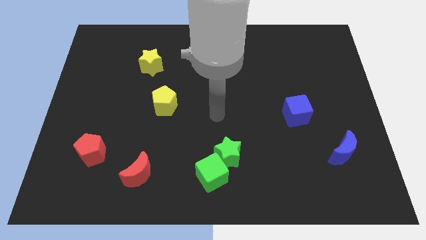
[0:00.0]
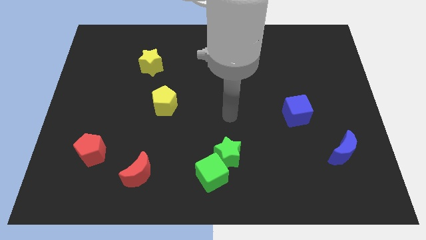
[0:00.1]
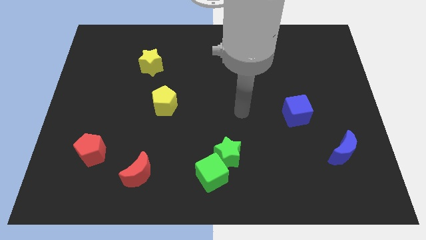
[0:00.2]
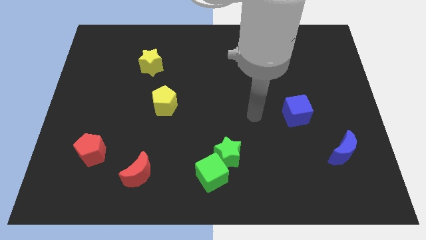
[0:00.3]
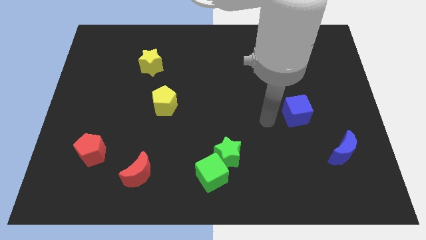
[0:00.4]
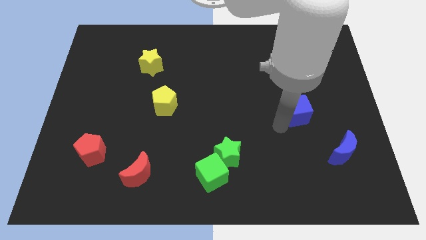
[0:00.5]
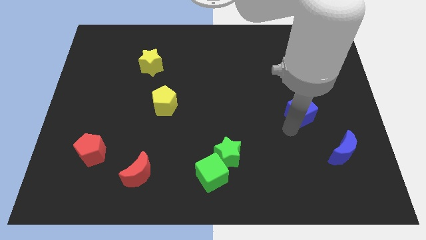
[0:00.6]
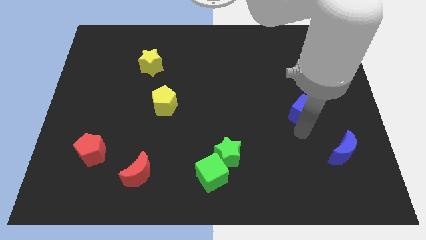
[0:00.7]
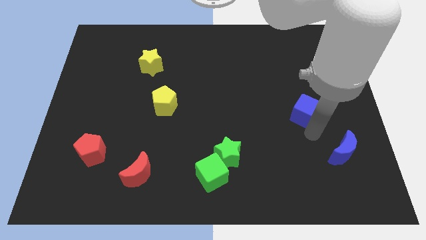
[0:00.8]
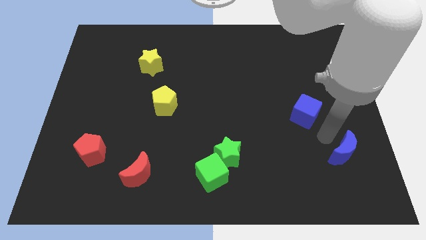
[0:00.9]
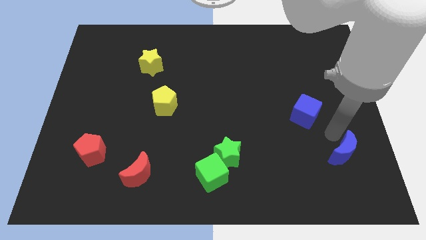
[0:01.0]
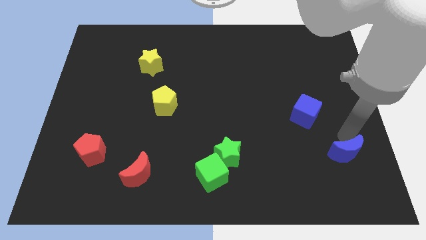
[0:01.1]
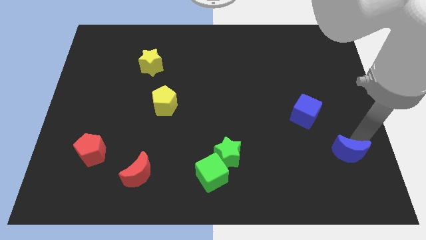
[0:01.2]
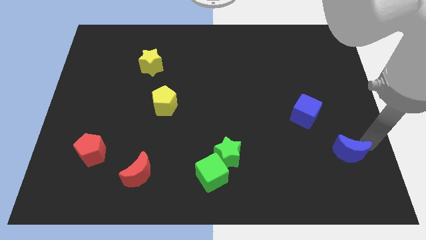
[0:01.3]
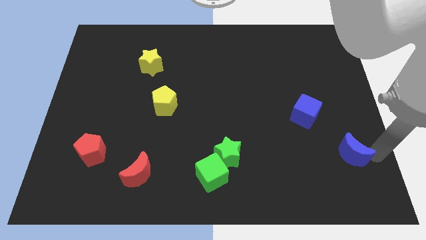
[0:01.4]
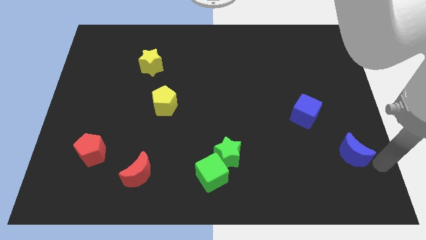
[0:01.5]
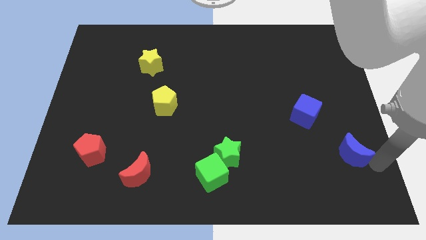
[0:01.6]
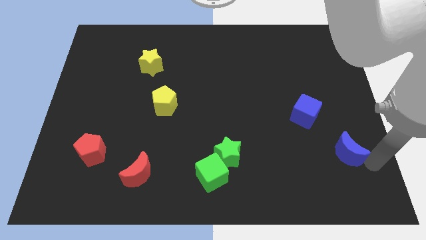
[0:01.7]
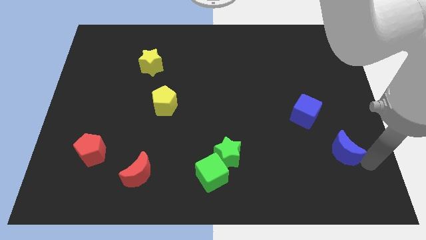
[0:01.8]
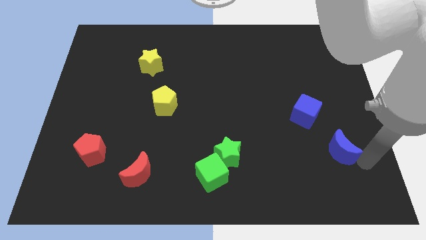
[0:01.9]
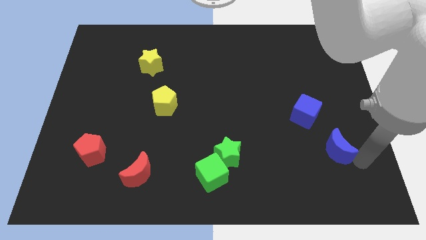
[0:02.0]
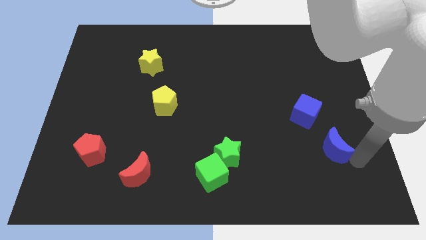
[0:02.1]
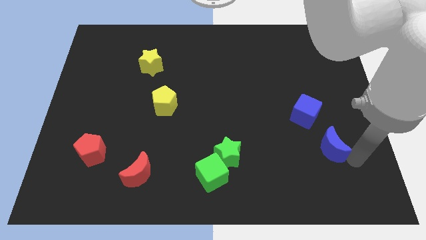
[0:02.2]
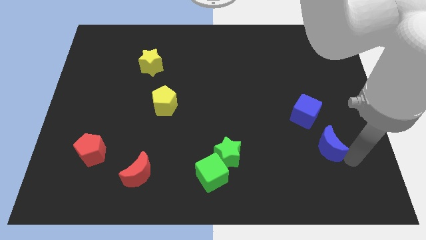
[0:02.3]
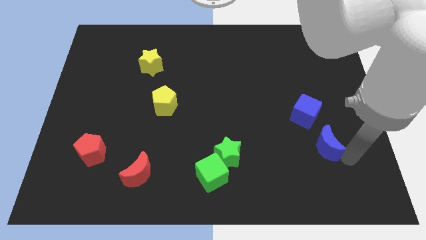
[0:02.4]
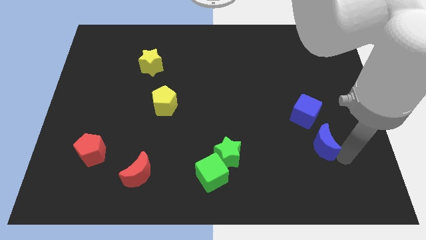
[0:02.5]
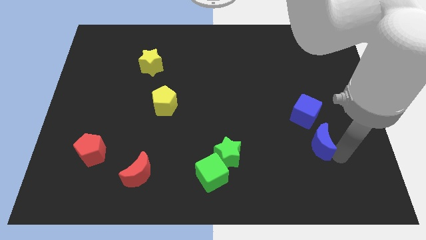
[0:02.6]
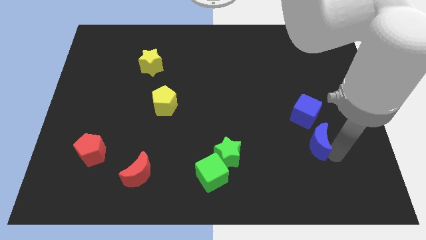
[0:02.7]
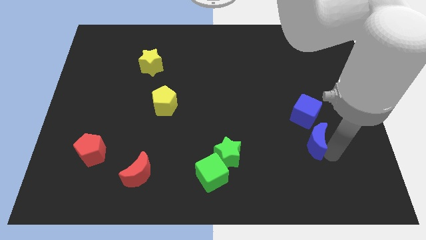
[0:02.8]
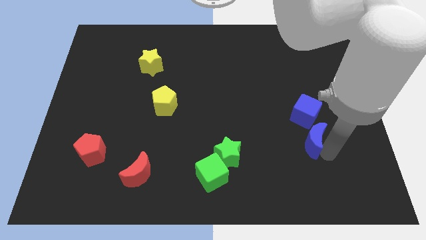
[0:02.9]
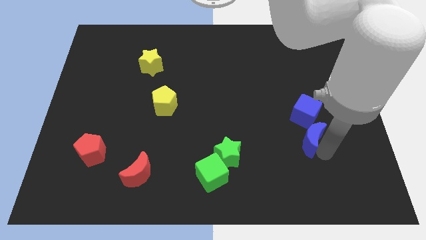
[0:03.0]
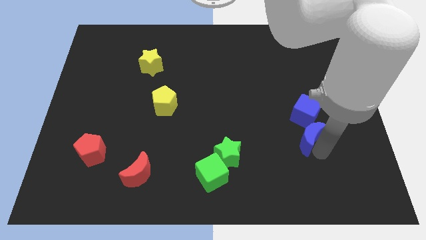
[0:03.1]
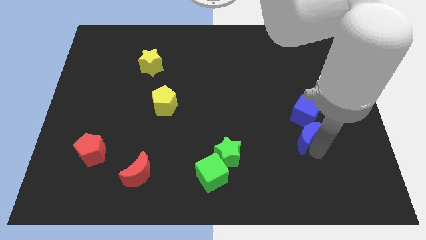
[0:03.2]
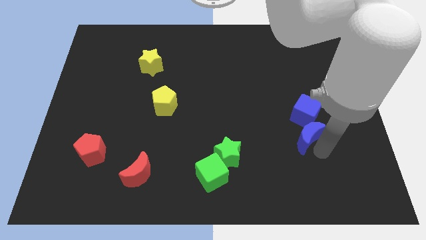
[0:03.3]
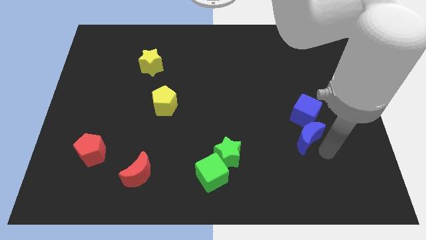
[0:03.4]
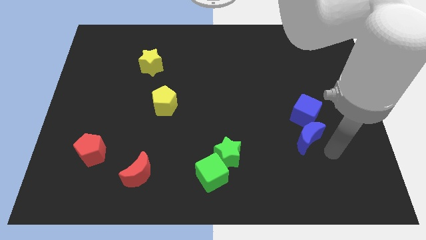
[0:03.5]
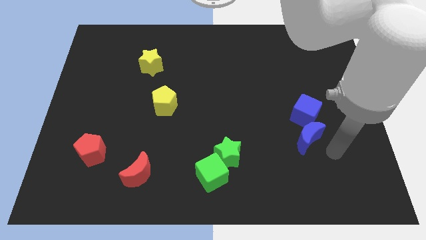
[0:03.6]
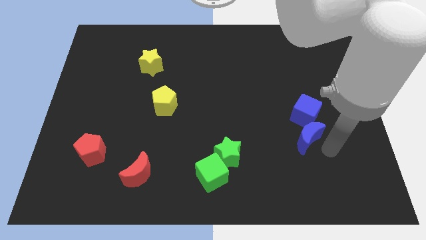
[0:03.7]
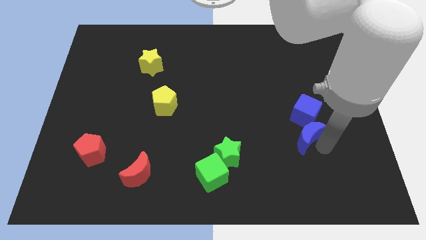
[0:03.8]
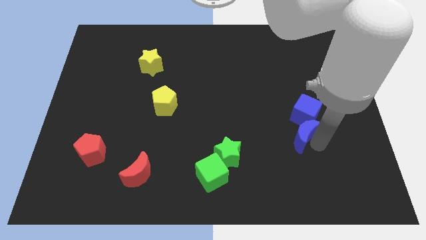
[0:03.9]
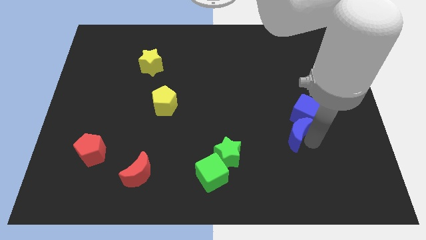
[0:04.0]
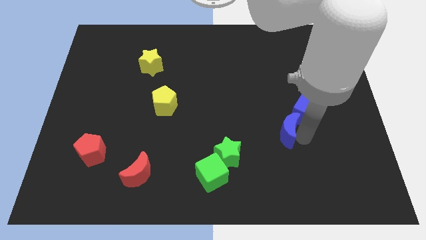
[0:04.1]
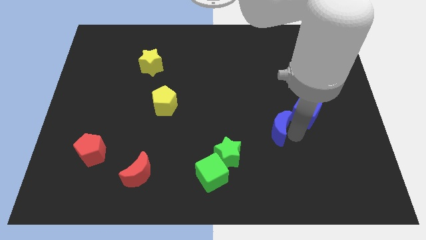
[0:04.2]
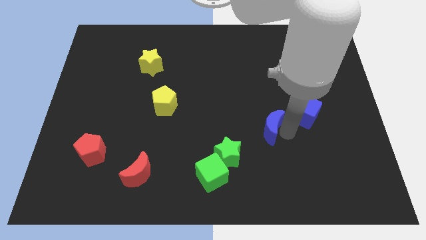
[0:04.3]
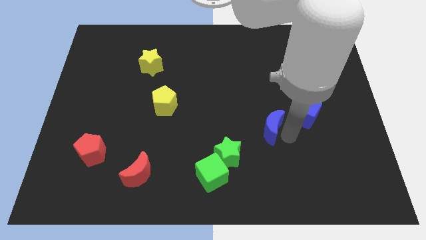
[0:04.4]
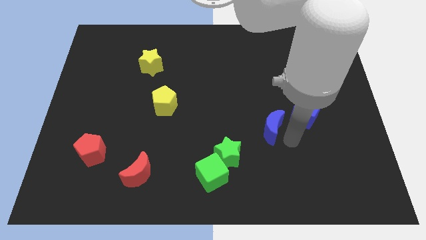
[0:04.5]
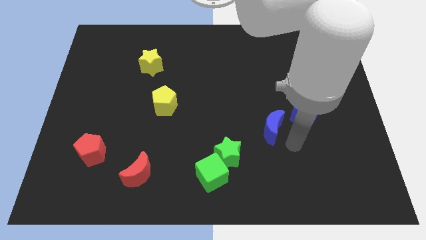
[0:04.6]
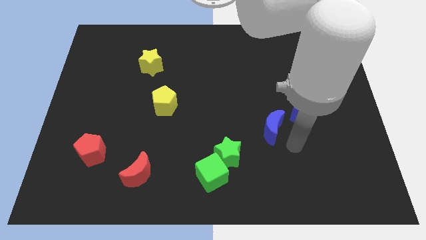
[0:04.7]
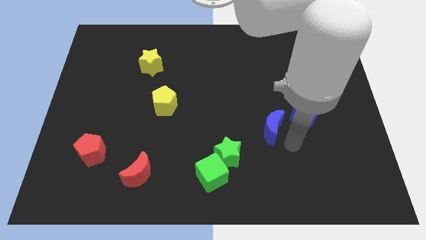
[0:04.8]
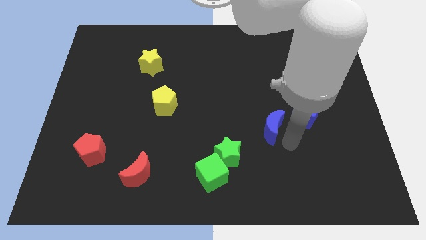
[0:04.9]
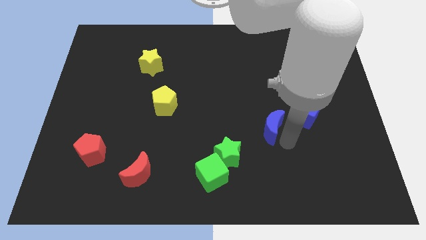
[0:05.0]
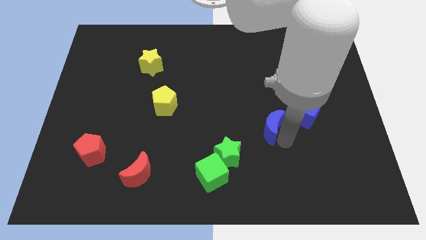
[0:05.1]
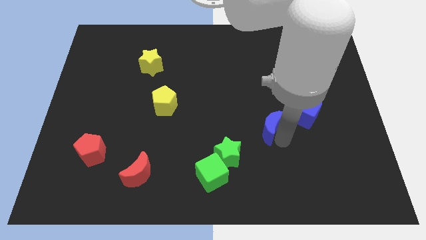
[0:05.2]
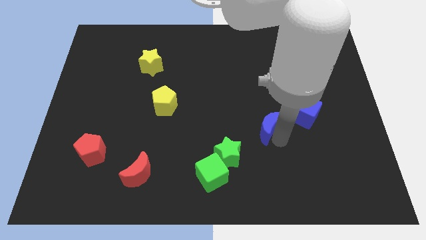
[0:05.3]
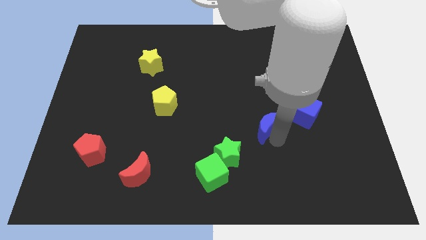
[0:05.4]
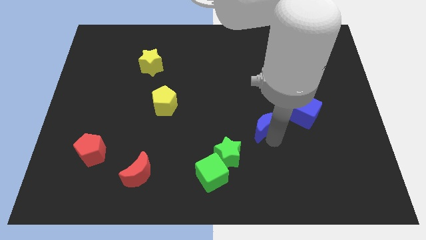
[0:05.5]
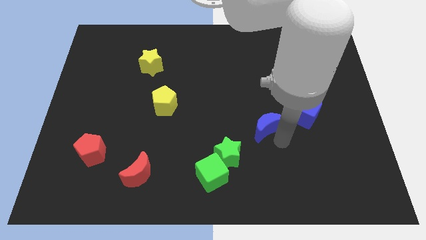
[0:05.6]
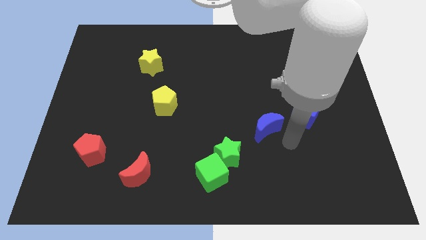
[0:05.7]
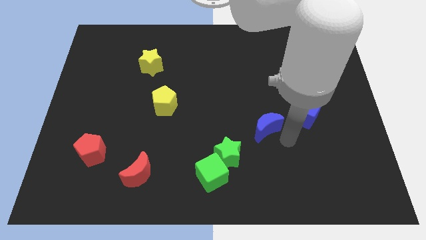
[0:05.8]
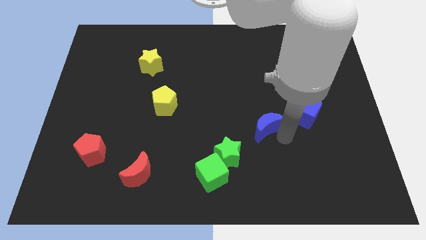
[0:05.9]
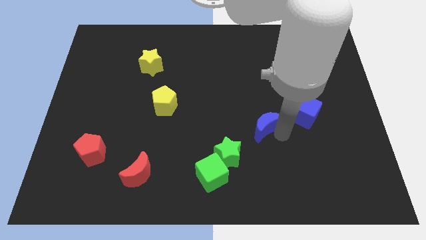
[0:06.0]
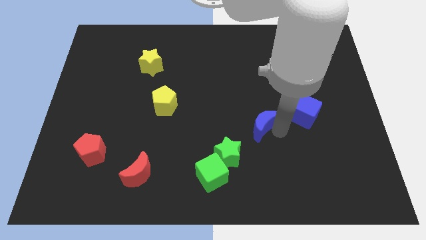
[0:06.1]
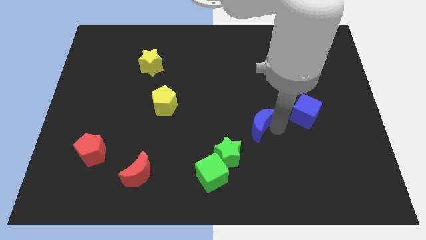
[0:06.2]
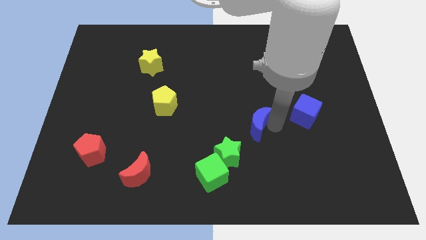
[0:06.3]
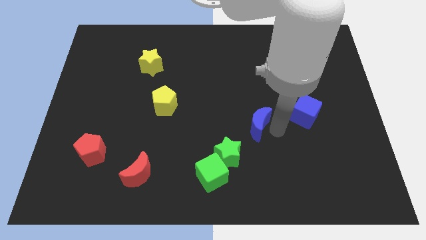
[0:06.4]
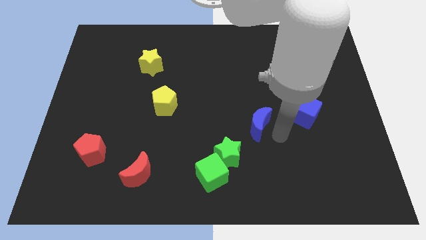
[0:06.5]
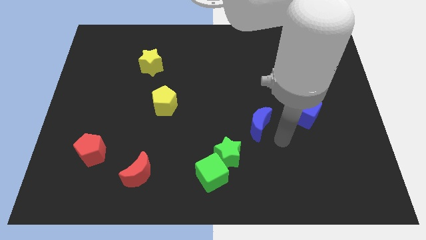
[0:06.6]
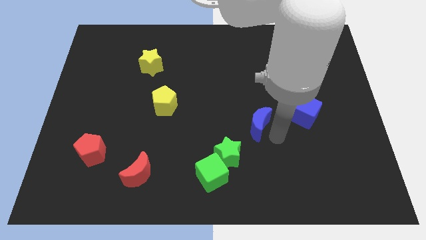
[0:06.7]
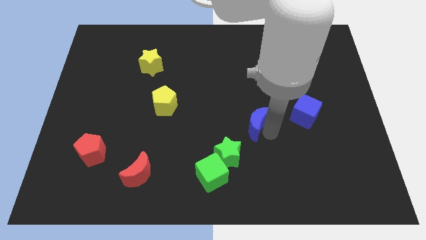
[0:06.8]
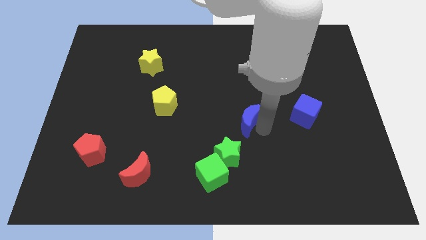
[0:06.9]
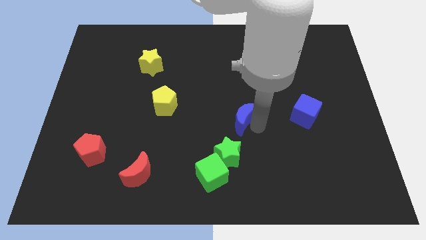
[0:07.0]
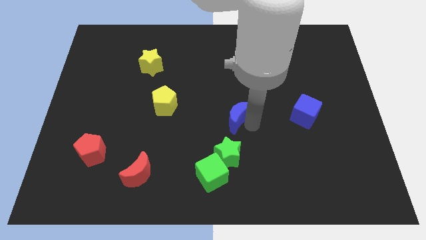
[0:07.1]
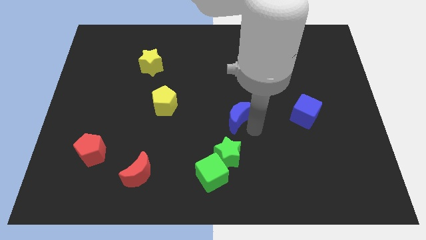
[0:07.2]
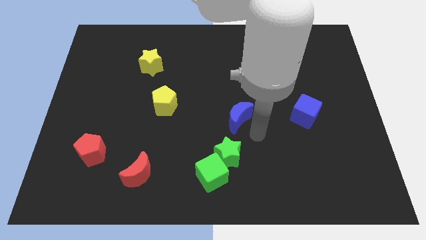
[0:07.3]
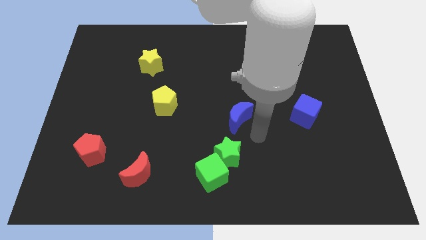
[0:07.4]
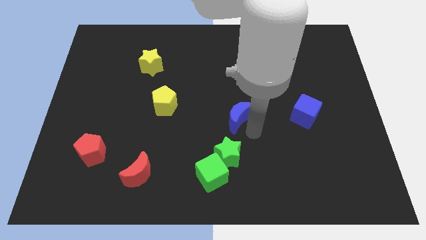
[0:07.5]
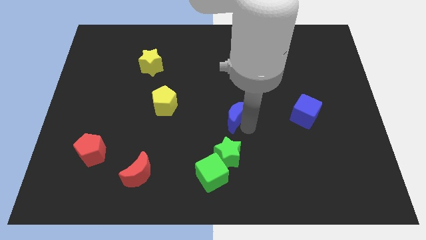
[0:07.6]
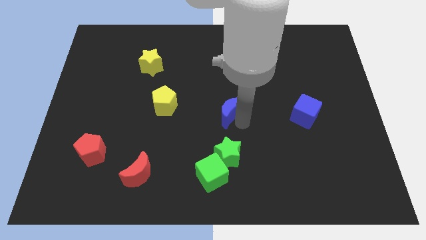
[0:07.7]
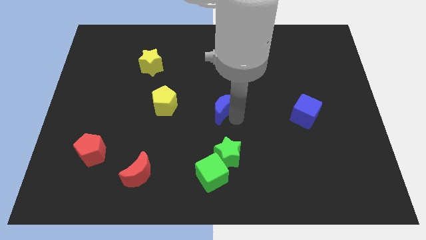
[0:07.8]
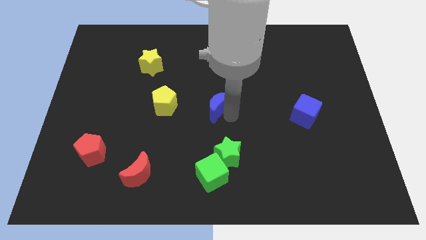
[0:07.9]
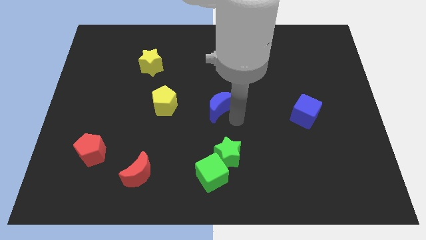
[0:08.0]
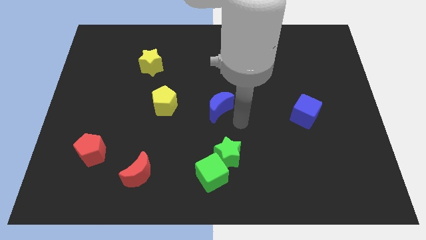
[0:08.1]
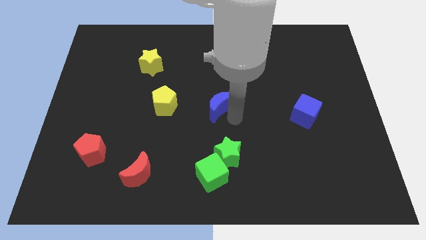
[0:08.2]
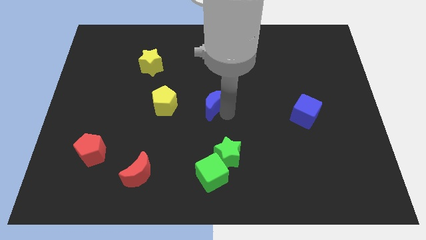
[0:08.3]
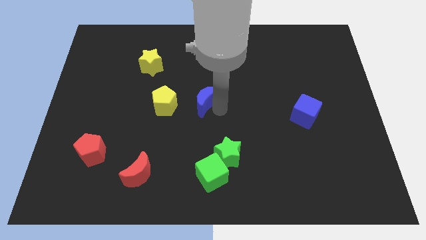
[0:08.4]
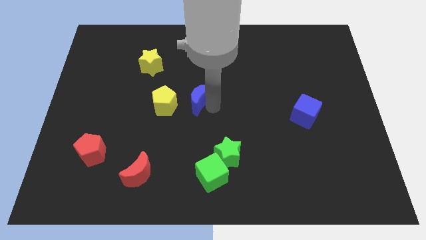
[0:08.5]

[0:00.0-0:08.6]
slide the blue moon to the top right side of the yellow pentagon
